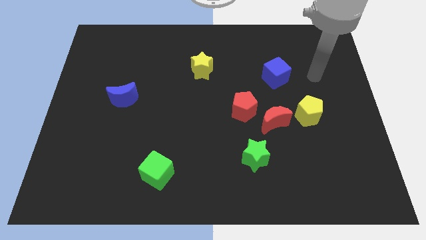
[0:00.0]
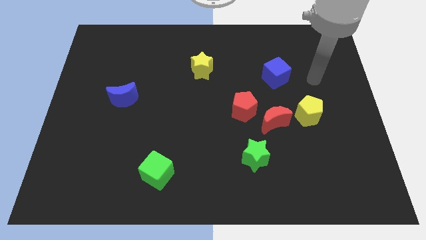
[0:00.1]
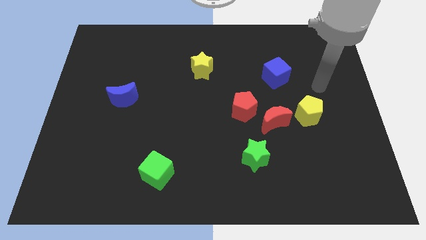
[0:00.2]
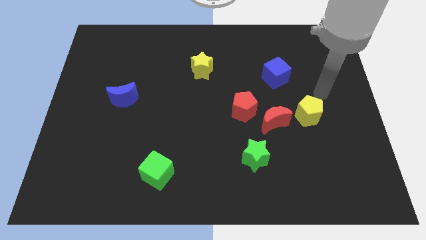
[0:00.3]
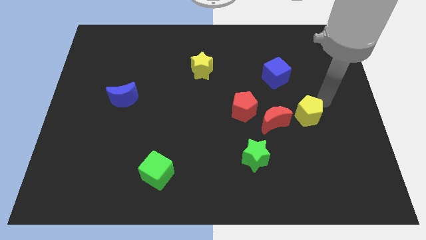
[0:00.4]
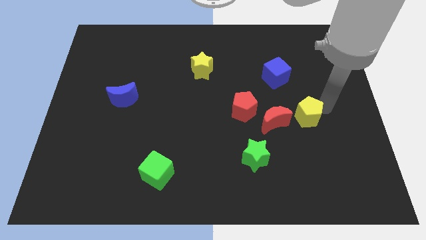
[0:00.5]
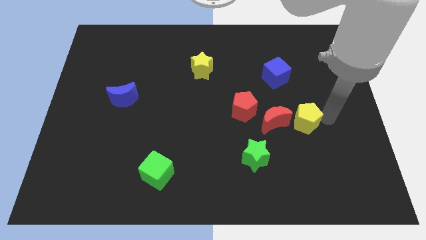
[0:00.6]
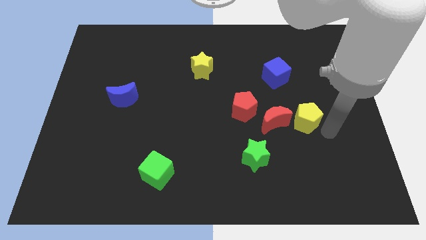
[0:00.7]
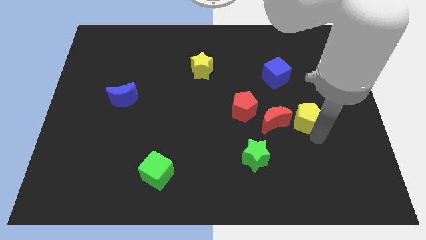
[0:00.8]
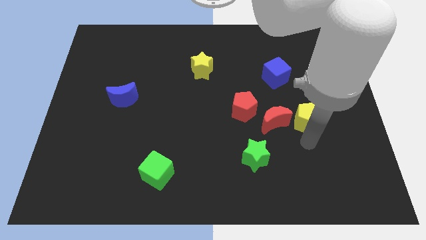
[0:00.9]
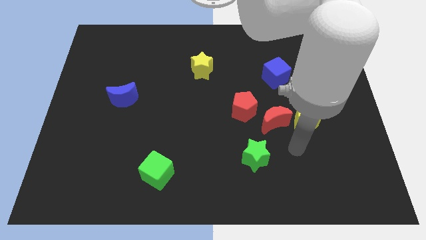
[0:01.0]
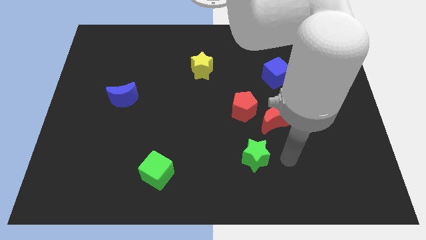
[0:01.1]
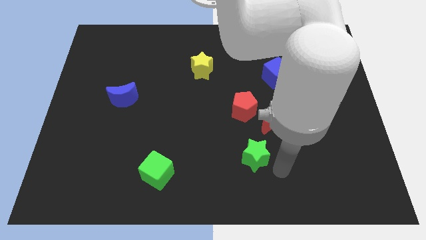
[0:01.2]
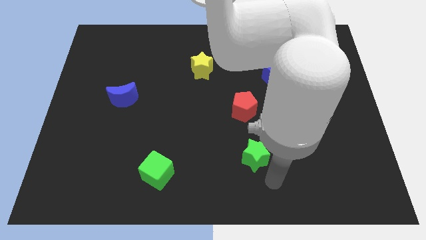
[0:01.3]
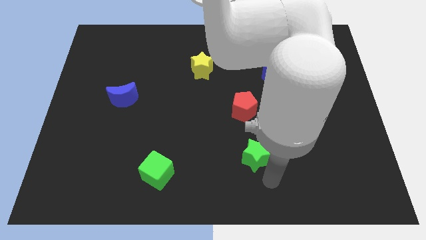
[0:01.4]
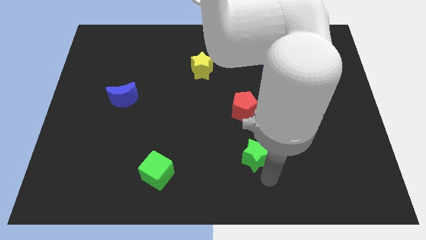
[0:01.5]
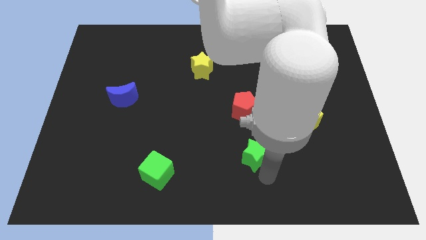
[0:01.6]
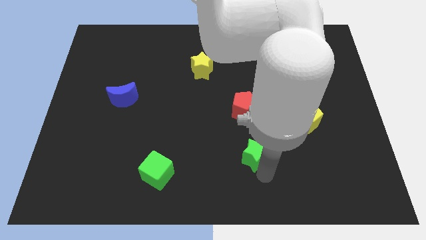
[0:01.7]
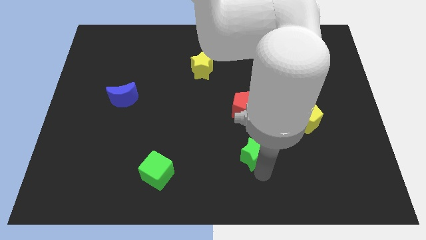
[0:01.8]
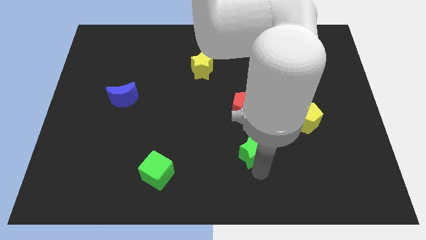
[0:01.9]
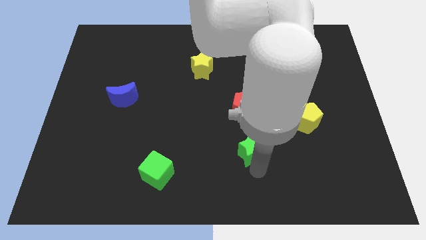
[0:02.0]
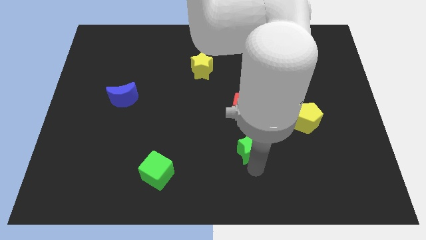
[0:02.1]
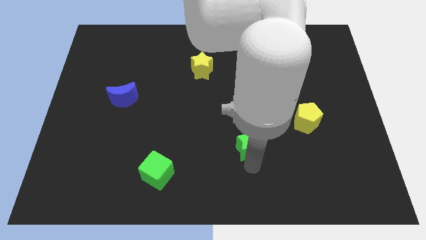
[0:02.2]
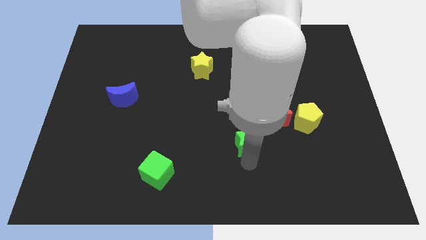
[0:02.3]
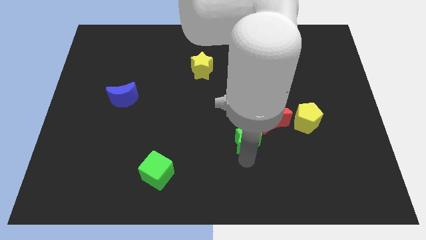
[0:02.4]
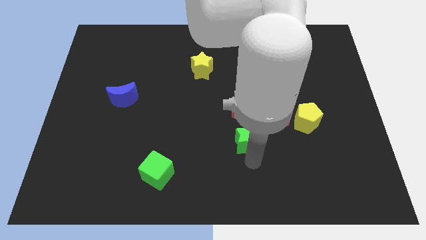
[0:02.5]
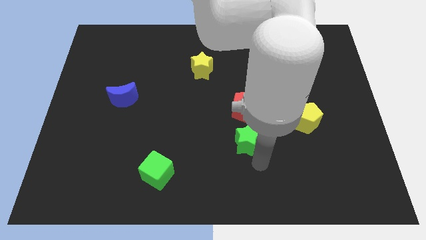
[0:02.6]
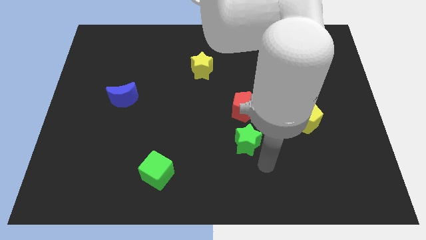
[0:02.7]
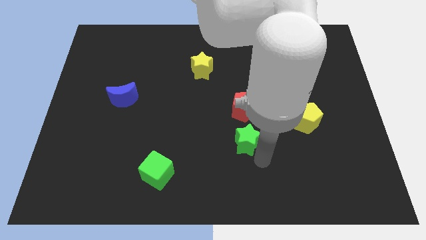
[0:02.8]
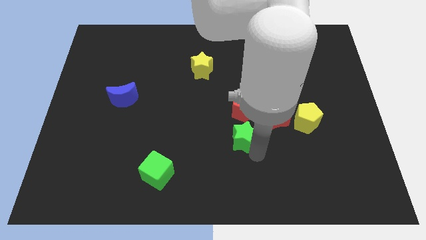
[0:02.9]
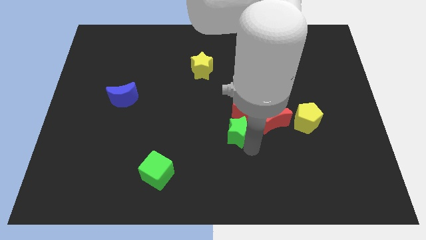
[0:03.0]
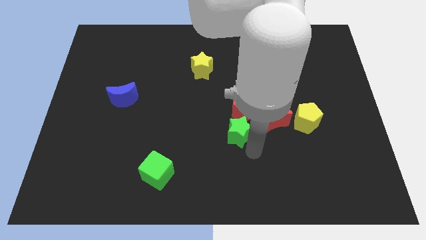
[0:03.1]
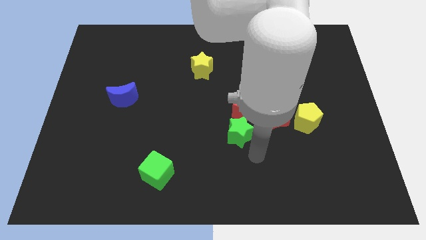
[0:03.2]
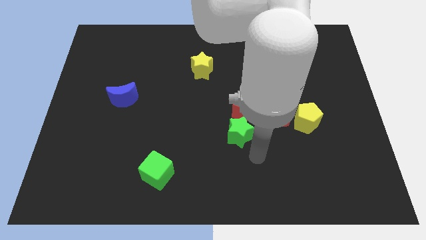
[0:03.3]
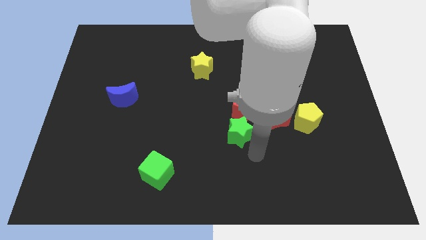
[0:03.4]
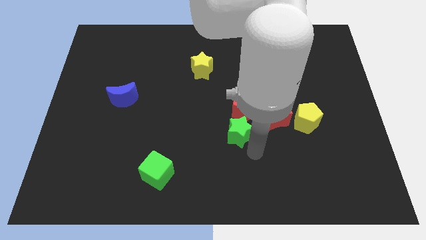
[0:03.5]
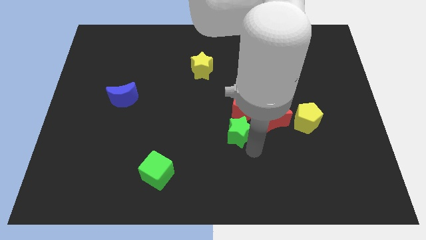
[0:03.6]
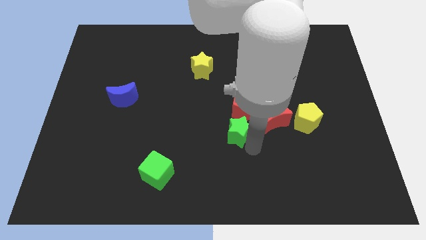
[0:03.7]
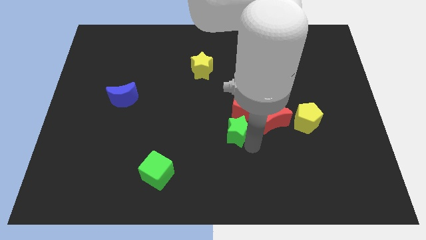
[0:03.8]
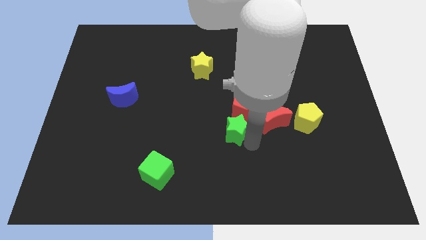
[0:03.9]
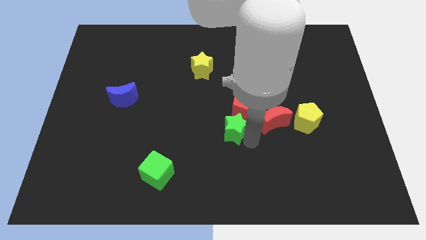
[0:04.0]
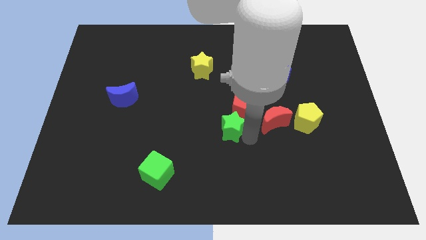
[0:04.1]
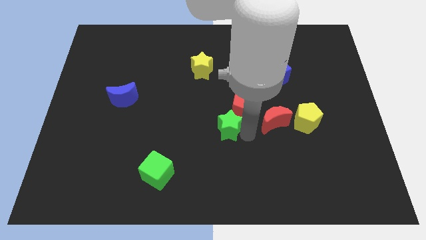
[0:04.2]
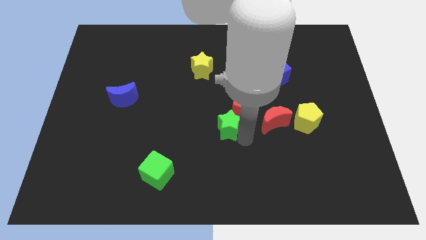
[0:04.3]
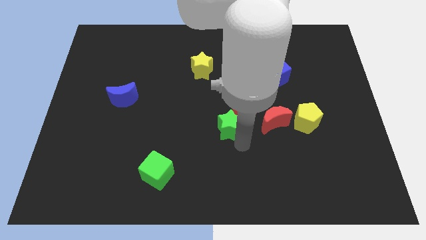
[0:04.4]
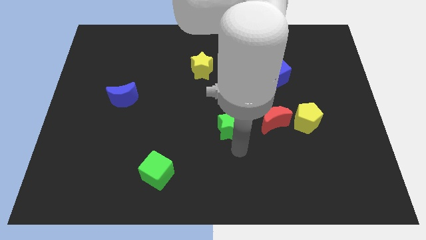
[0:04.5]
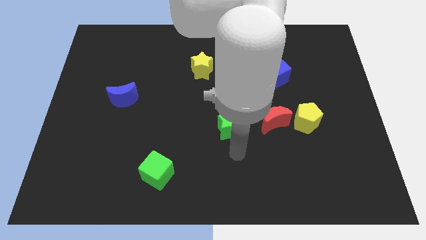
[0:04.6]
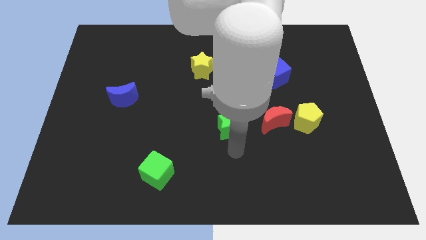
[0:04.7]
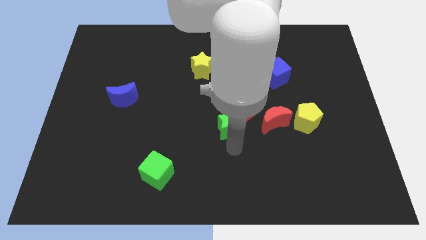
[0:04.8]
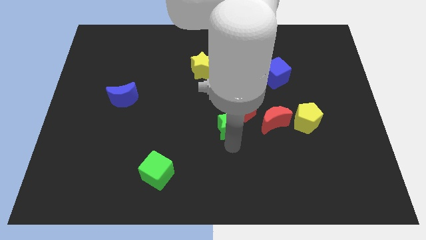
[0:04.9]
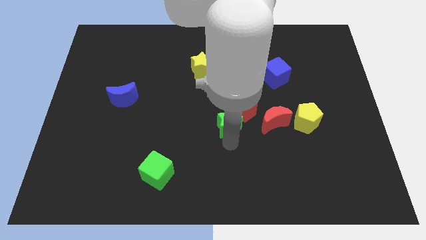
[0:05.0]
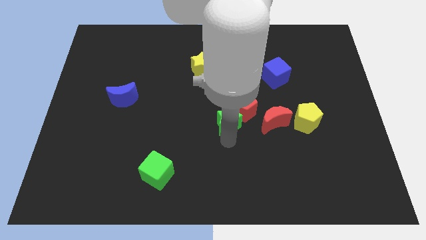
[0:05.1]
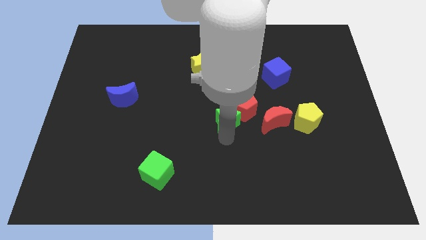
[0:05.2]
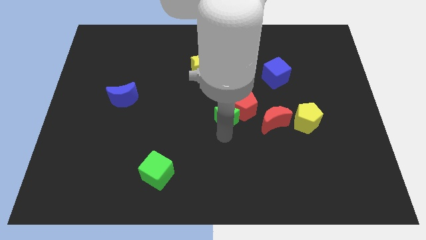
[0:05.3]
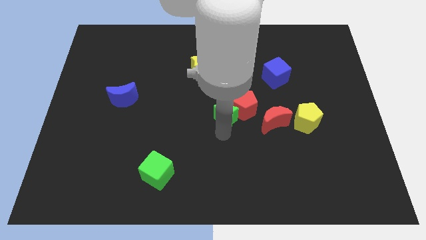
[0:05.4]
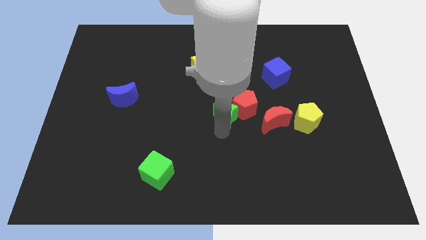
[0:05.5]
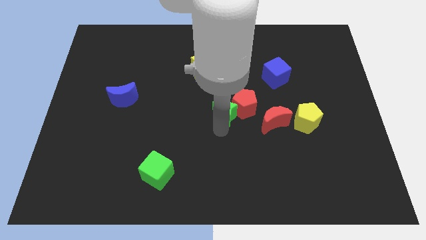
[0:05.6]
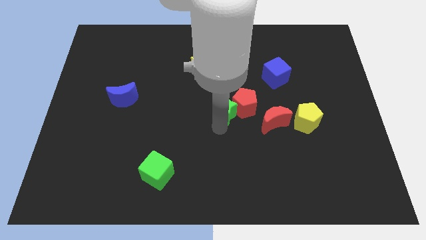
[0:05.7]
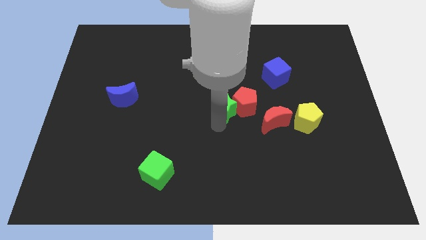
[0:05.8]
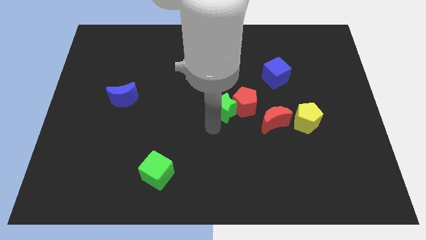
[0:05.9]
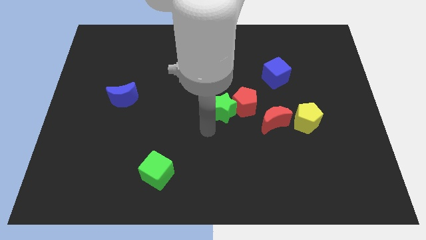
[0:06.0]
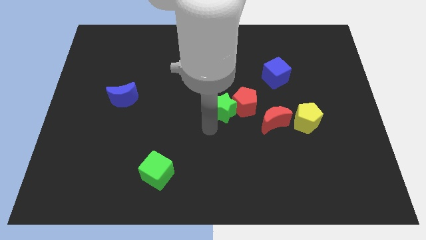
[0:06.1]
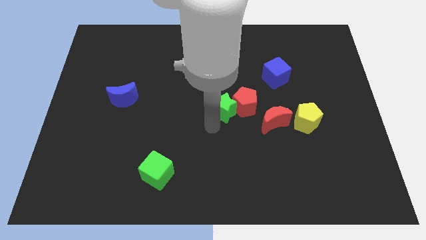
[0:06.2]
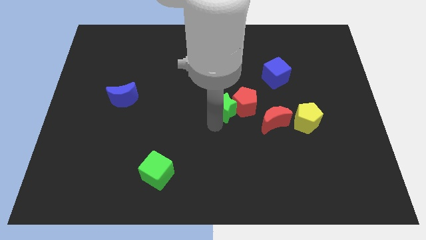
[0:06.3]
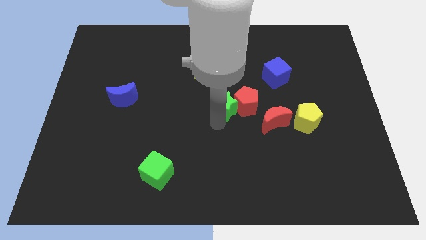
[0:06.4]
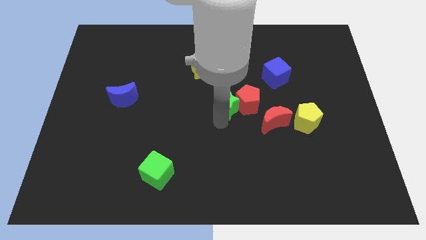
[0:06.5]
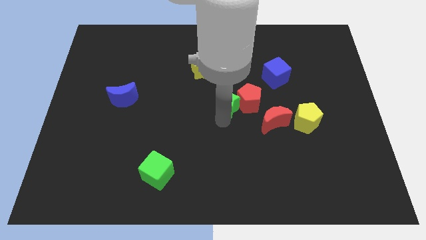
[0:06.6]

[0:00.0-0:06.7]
slide the green star to the top left of the red moon

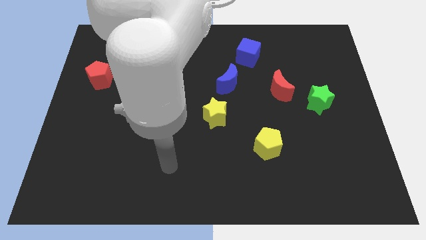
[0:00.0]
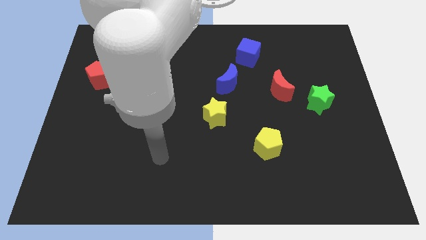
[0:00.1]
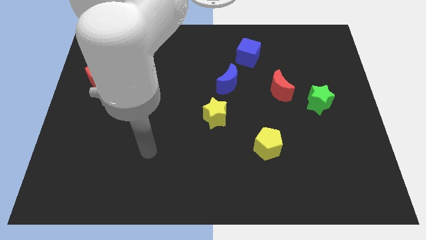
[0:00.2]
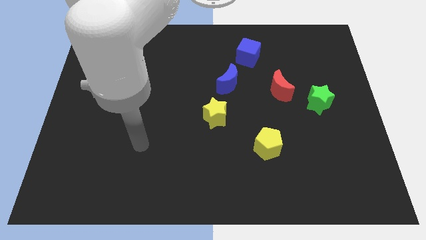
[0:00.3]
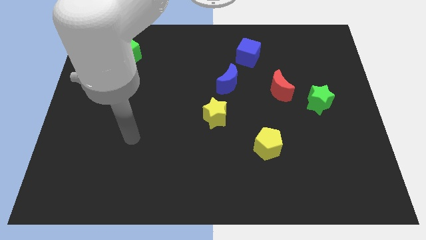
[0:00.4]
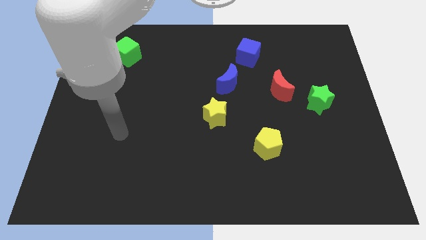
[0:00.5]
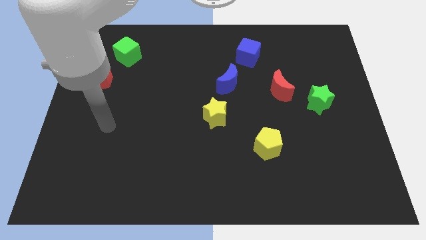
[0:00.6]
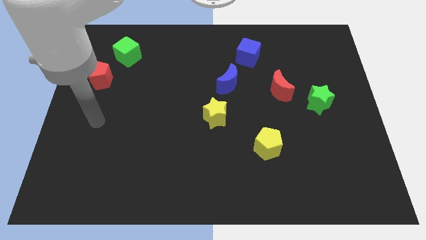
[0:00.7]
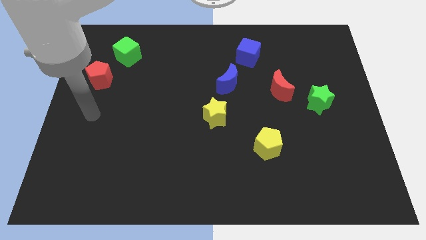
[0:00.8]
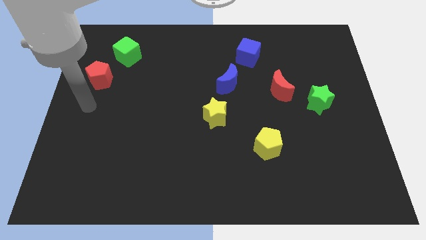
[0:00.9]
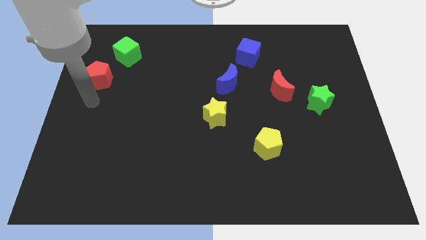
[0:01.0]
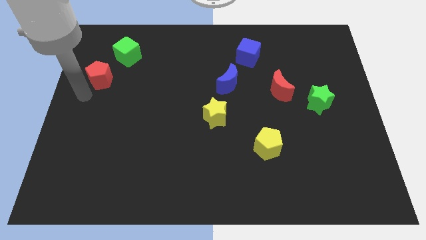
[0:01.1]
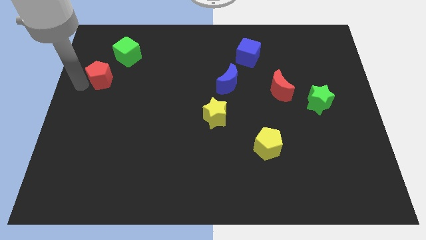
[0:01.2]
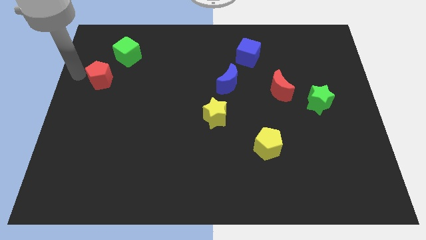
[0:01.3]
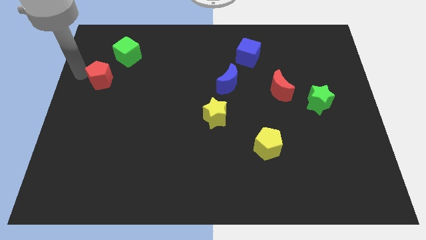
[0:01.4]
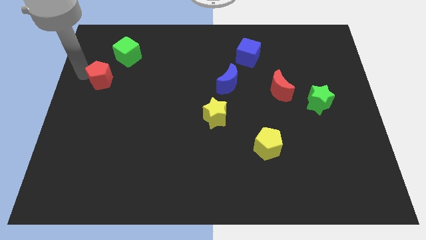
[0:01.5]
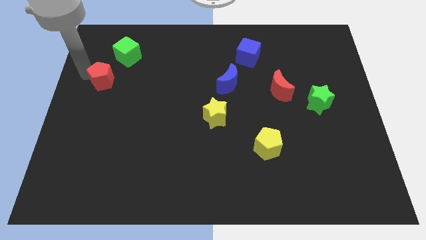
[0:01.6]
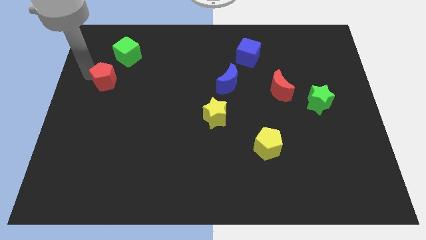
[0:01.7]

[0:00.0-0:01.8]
move the red pentagon below the green cube
